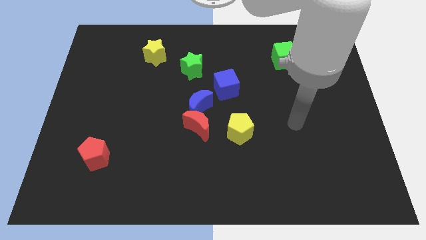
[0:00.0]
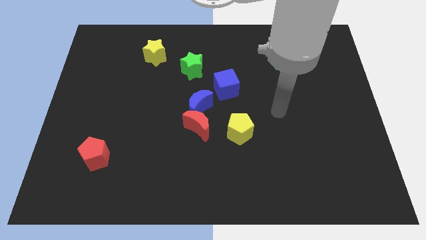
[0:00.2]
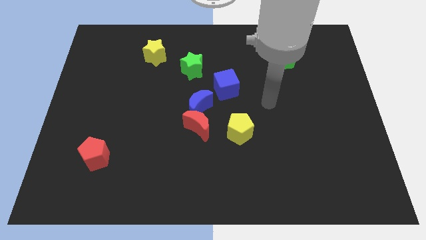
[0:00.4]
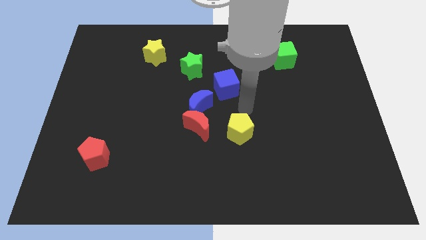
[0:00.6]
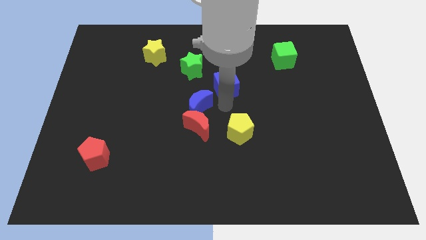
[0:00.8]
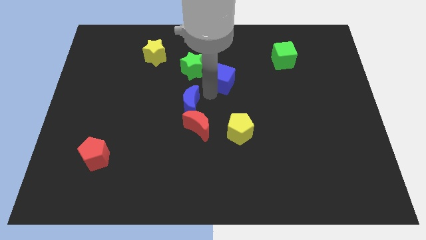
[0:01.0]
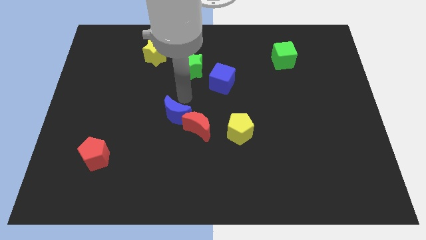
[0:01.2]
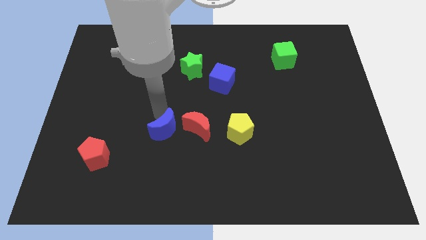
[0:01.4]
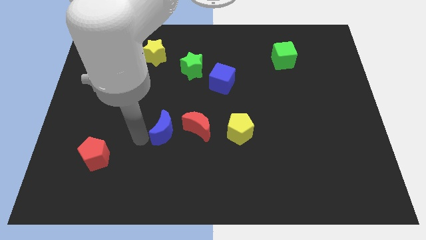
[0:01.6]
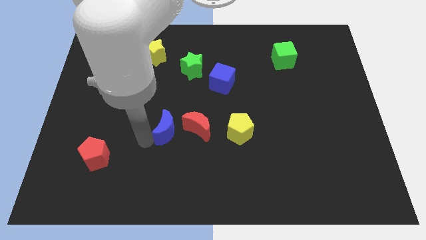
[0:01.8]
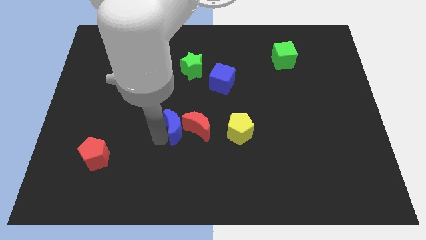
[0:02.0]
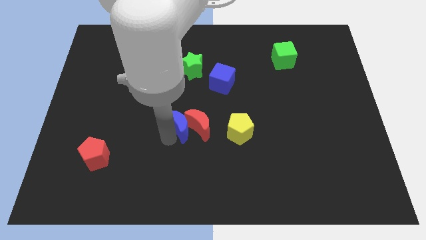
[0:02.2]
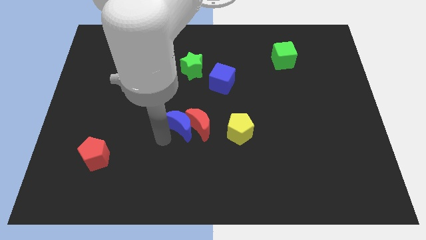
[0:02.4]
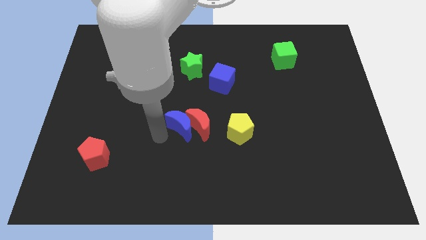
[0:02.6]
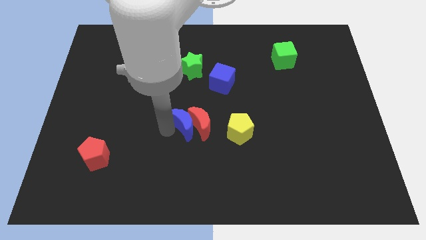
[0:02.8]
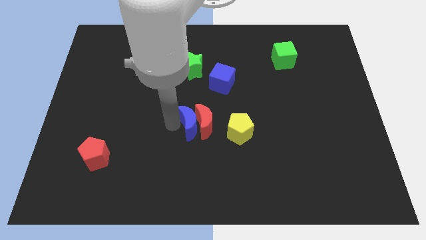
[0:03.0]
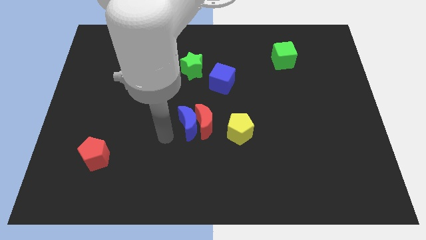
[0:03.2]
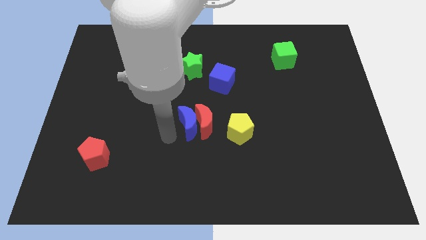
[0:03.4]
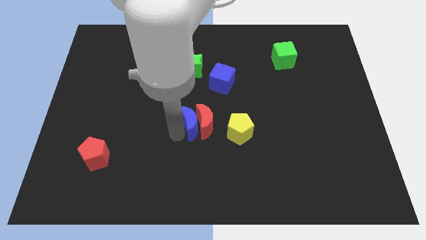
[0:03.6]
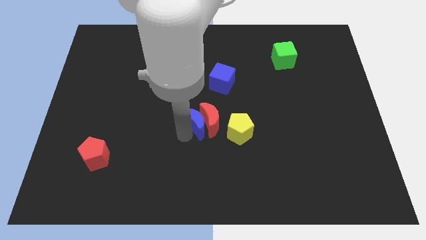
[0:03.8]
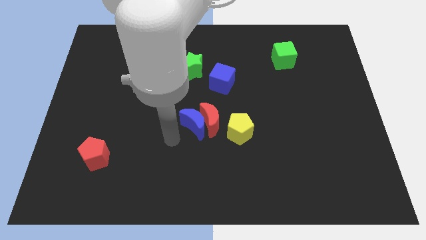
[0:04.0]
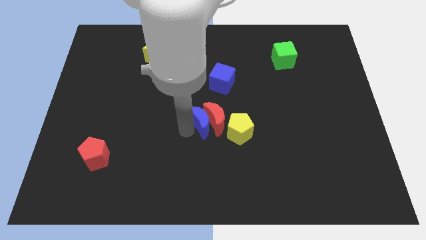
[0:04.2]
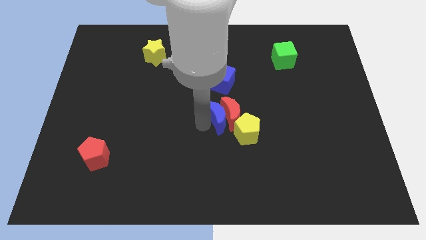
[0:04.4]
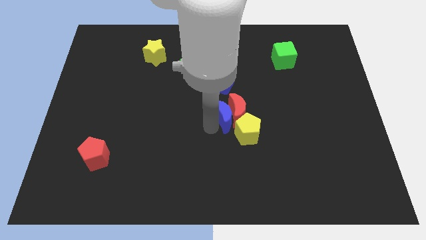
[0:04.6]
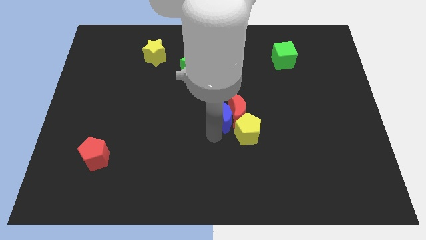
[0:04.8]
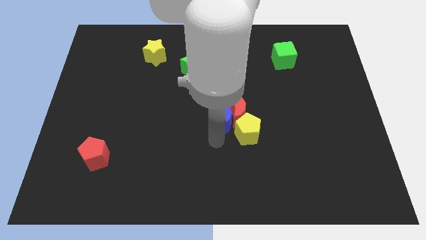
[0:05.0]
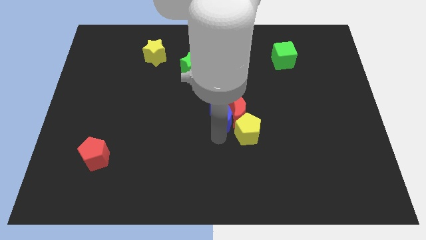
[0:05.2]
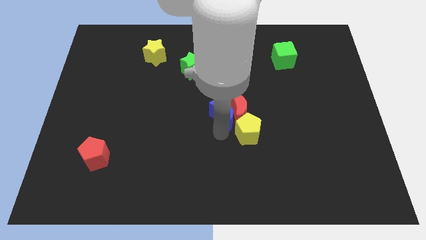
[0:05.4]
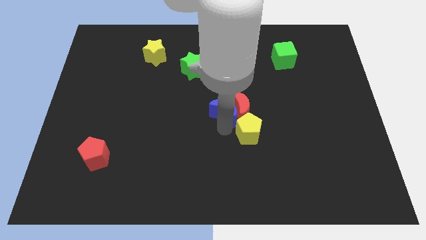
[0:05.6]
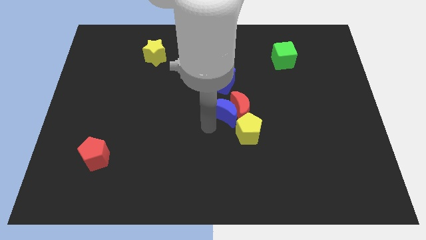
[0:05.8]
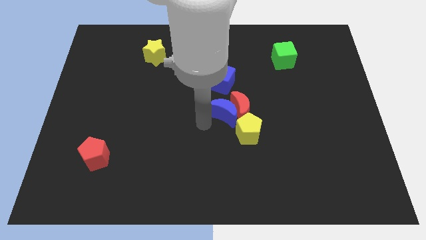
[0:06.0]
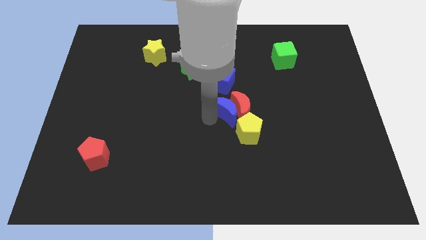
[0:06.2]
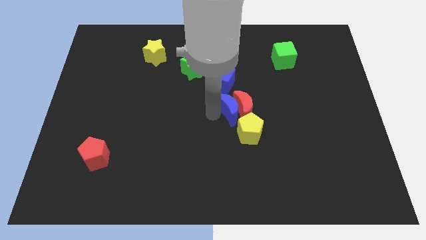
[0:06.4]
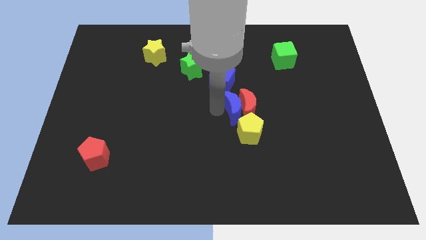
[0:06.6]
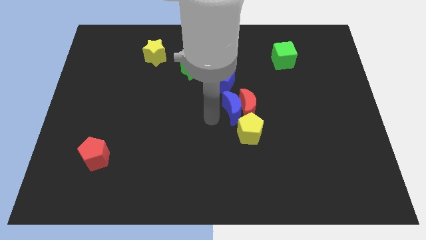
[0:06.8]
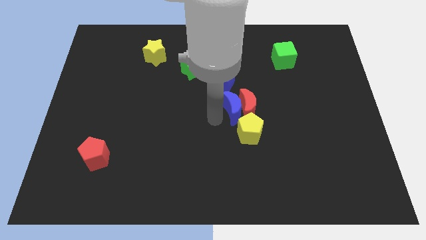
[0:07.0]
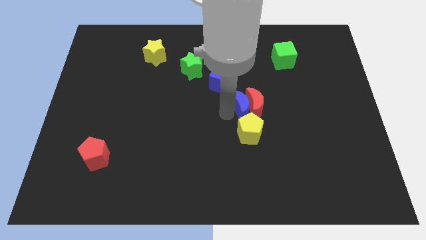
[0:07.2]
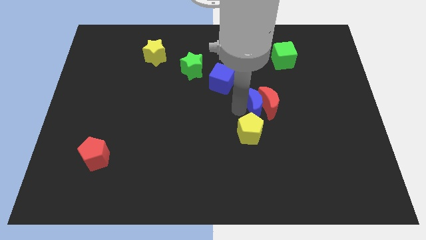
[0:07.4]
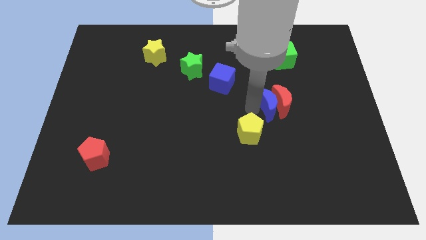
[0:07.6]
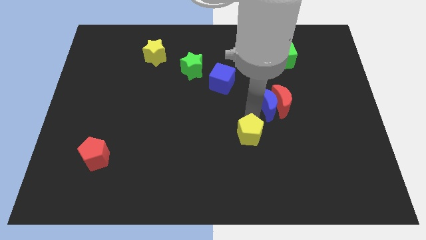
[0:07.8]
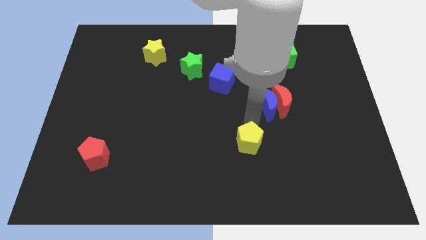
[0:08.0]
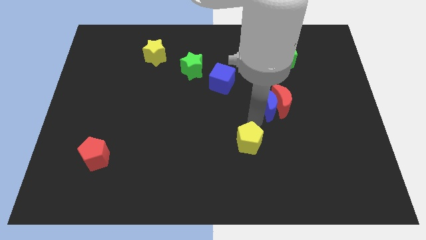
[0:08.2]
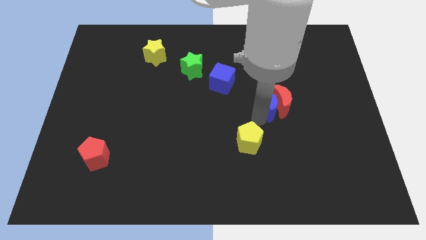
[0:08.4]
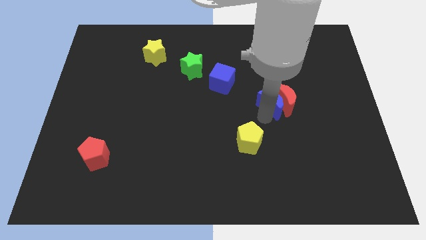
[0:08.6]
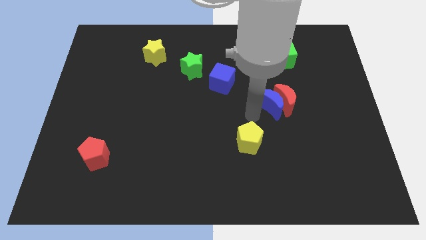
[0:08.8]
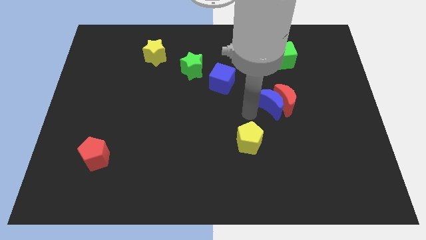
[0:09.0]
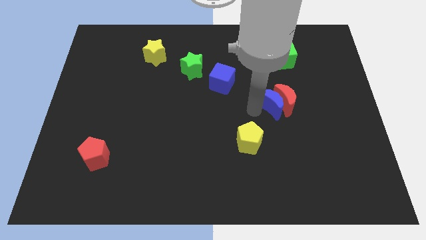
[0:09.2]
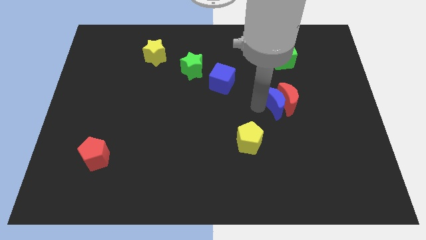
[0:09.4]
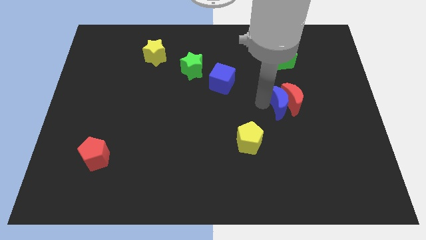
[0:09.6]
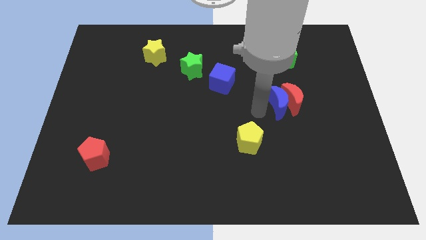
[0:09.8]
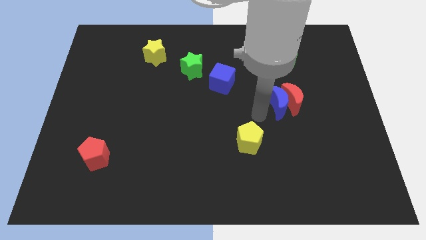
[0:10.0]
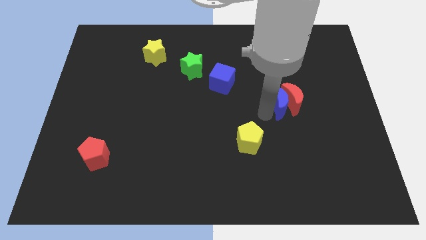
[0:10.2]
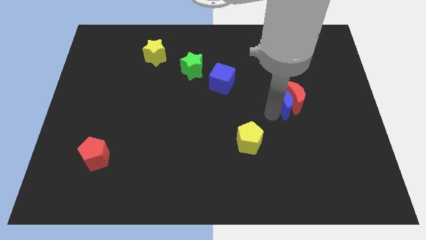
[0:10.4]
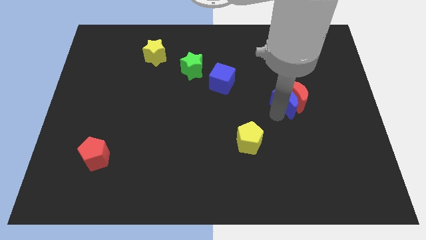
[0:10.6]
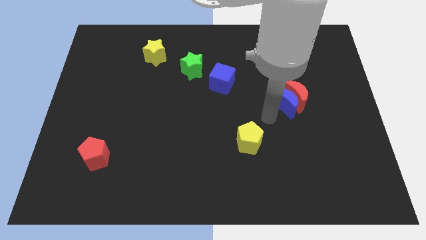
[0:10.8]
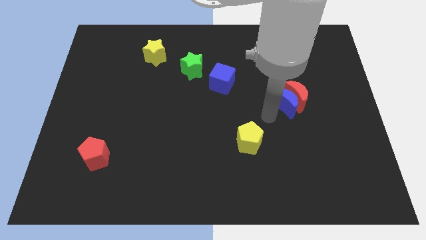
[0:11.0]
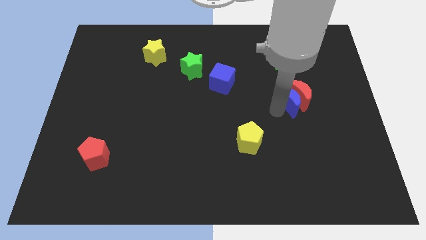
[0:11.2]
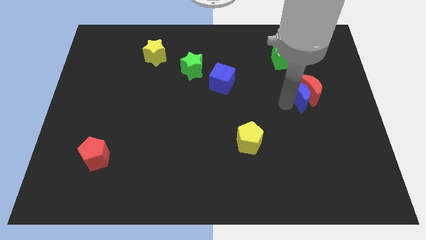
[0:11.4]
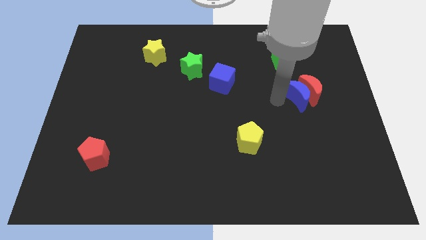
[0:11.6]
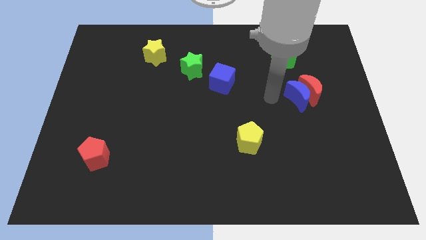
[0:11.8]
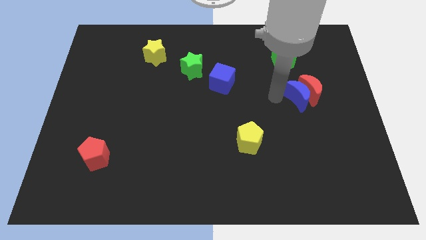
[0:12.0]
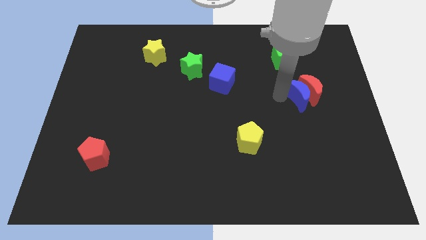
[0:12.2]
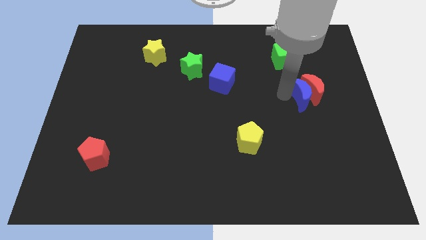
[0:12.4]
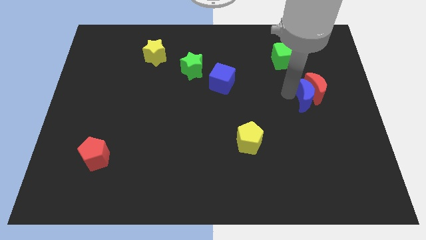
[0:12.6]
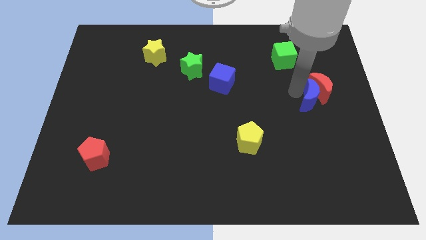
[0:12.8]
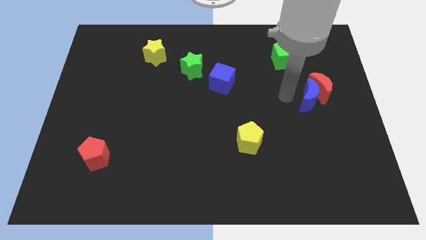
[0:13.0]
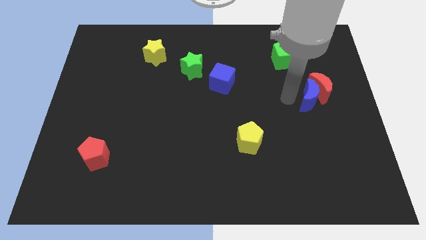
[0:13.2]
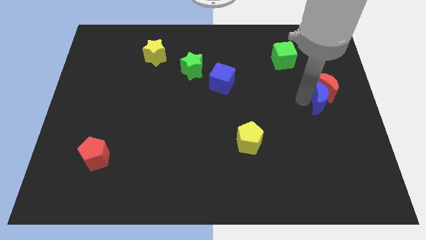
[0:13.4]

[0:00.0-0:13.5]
move the blue moon to the center right
